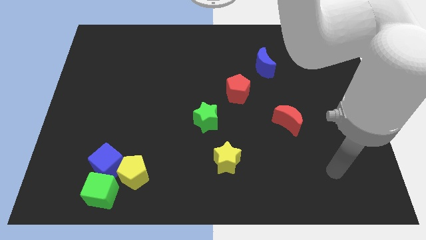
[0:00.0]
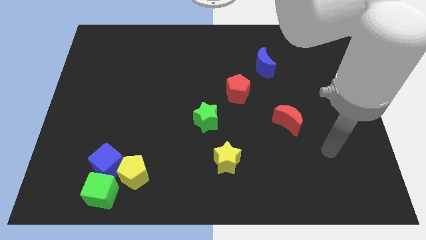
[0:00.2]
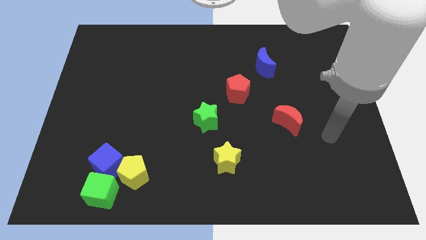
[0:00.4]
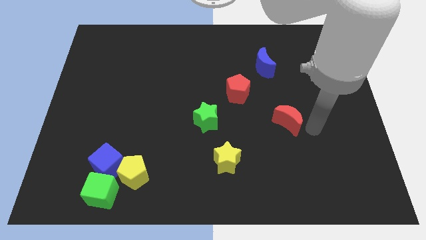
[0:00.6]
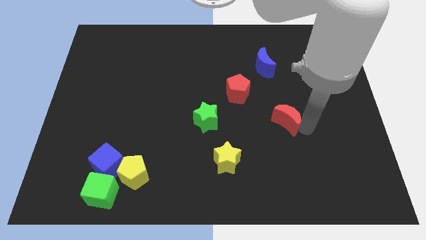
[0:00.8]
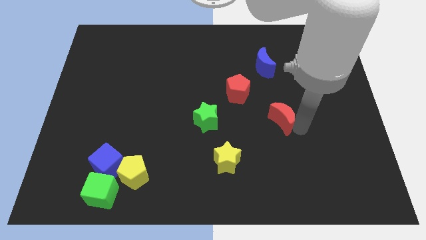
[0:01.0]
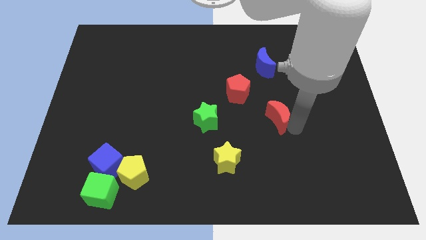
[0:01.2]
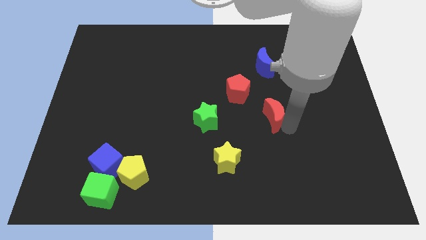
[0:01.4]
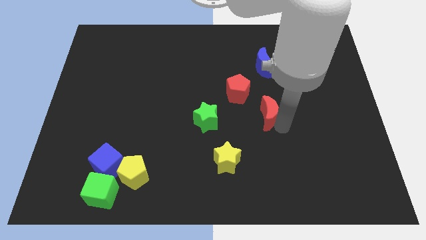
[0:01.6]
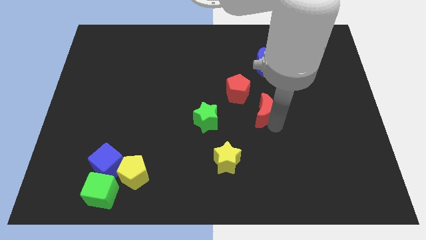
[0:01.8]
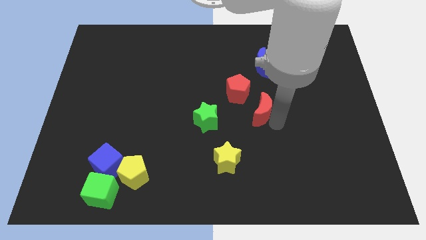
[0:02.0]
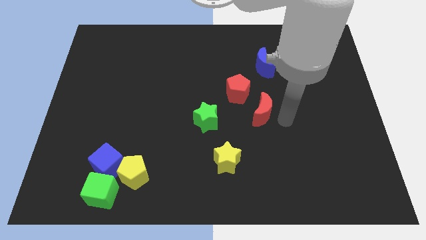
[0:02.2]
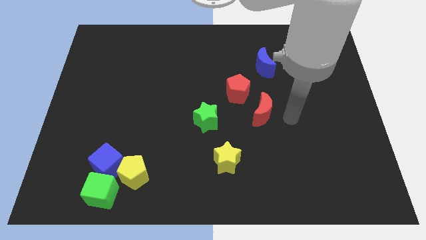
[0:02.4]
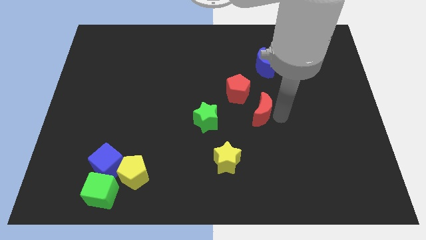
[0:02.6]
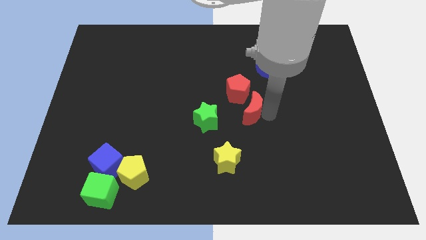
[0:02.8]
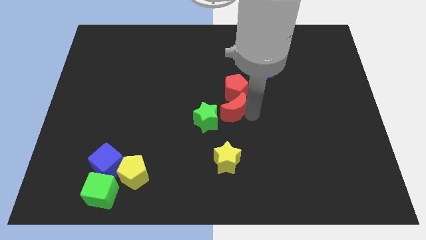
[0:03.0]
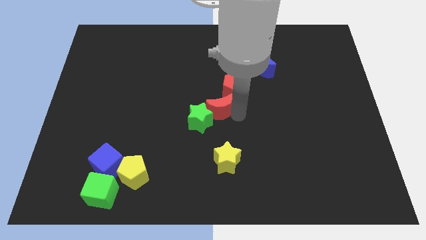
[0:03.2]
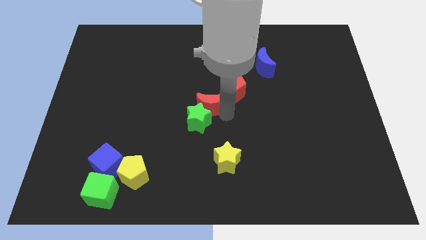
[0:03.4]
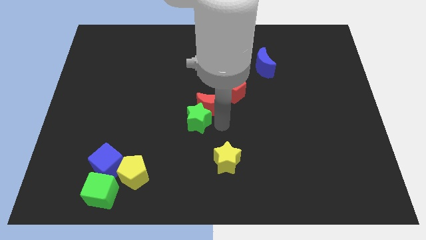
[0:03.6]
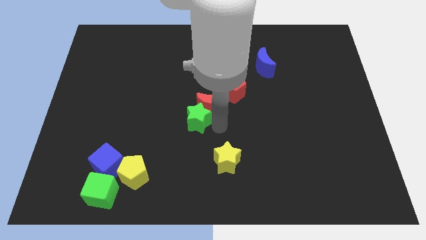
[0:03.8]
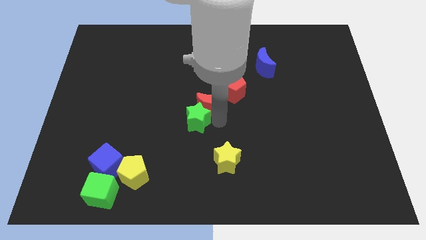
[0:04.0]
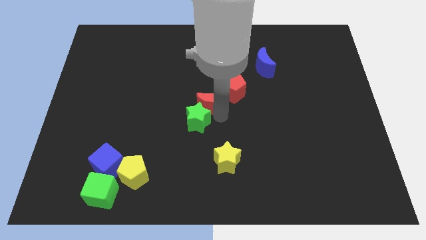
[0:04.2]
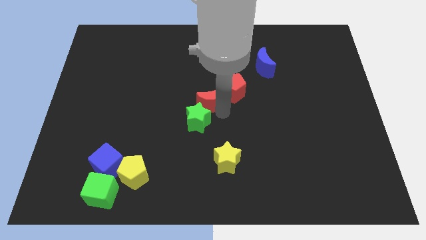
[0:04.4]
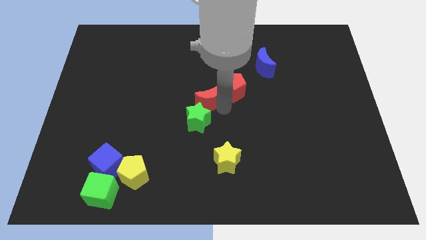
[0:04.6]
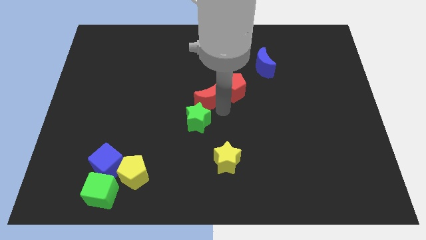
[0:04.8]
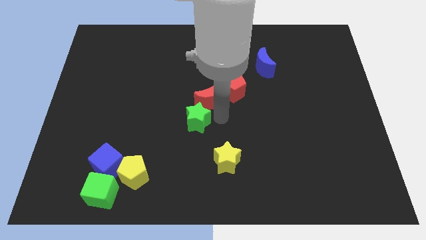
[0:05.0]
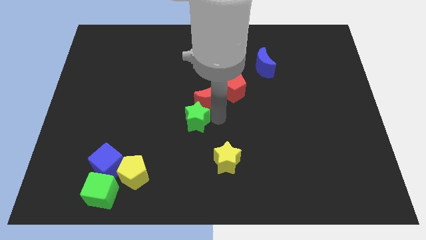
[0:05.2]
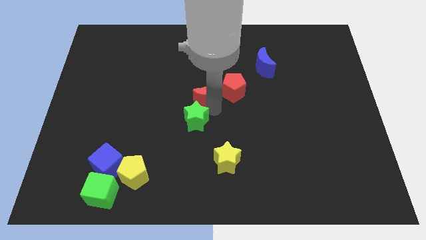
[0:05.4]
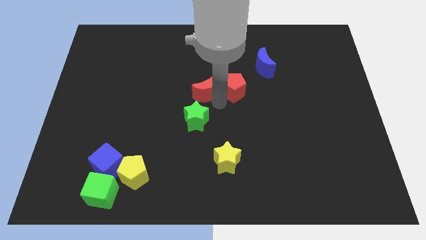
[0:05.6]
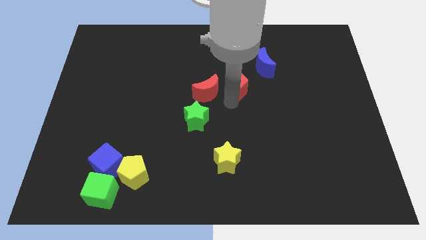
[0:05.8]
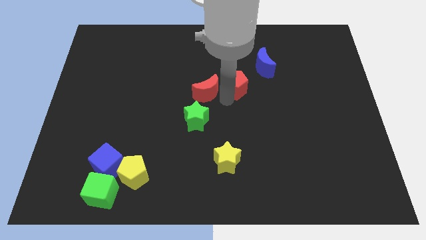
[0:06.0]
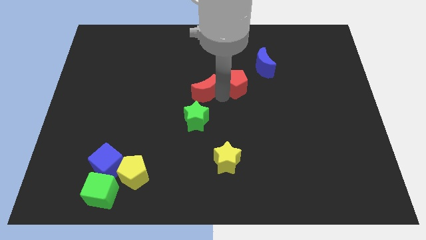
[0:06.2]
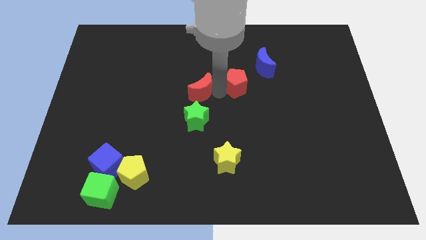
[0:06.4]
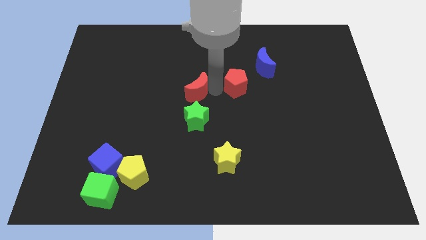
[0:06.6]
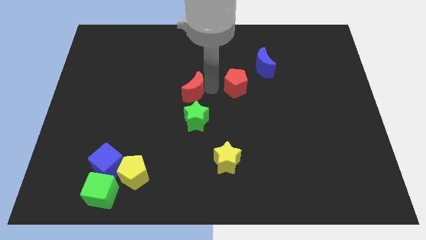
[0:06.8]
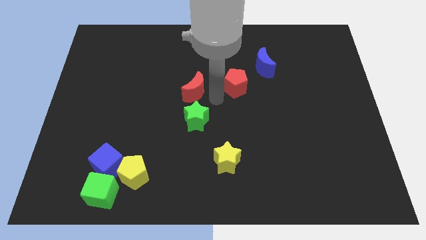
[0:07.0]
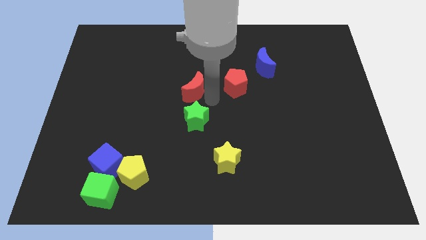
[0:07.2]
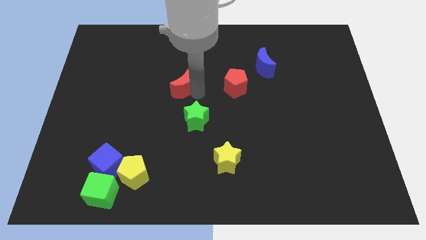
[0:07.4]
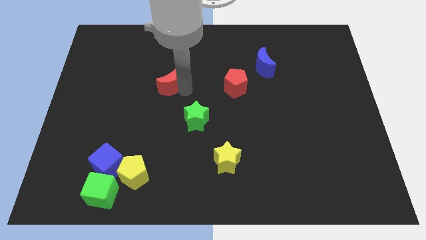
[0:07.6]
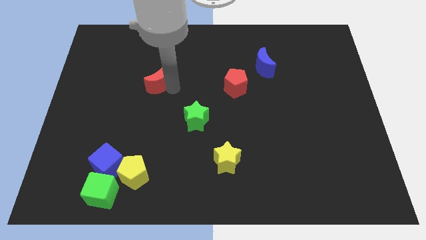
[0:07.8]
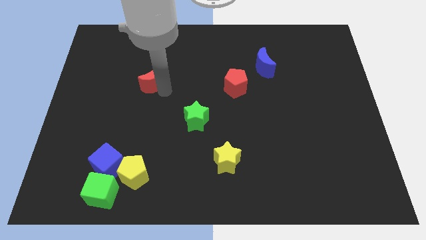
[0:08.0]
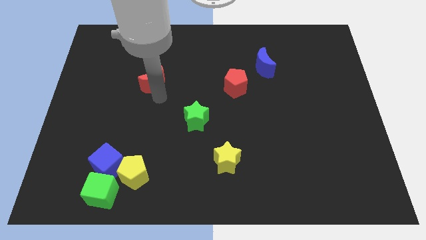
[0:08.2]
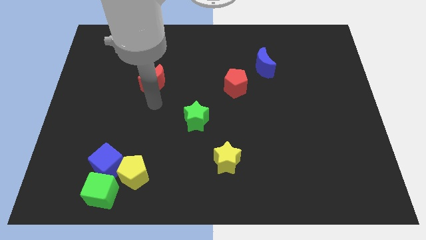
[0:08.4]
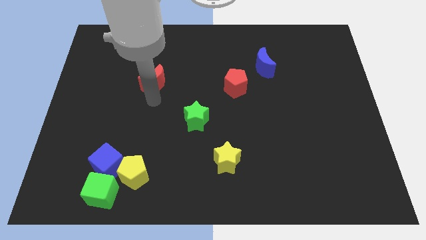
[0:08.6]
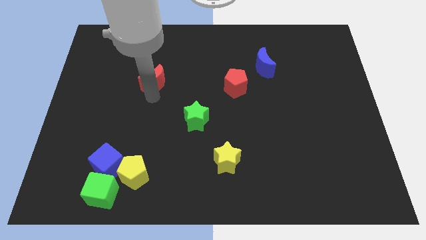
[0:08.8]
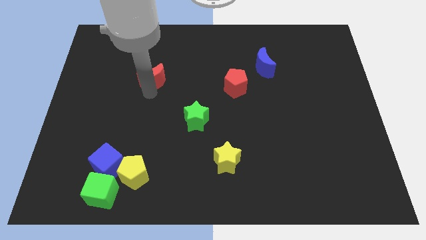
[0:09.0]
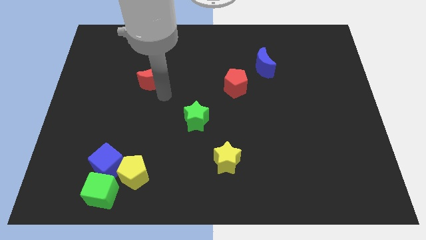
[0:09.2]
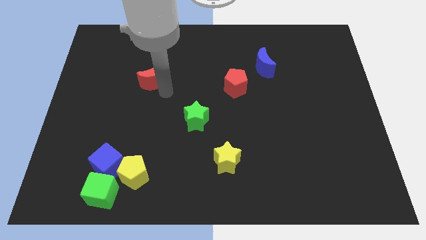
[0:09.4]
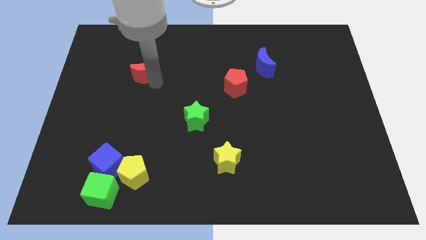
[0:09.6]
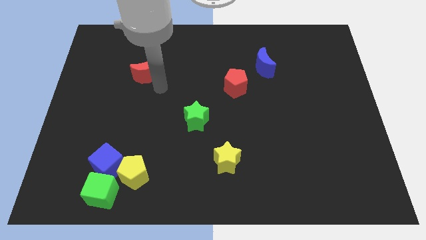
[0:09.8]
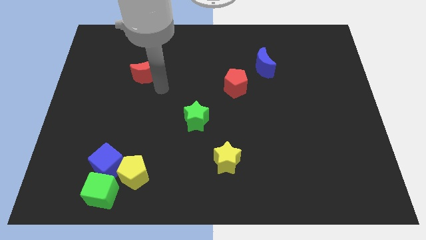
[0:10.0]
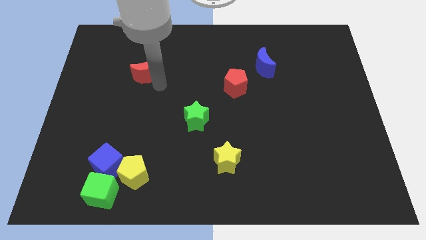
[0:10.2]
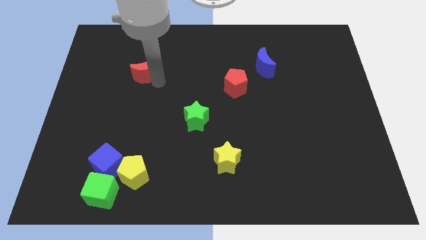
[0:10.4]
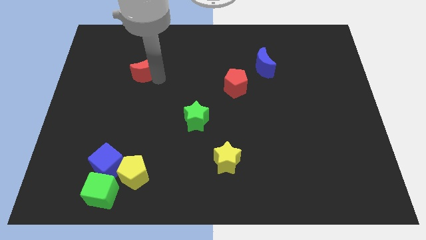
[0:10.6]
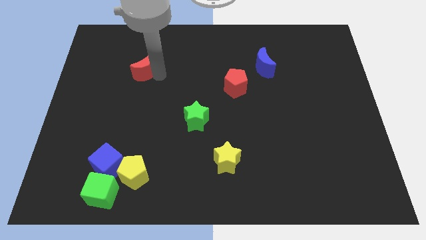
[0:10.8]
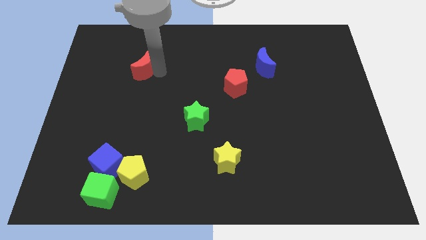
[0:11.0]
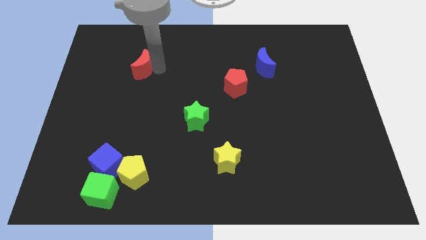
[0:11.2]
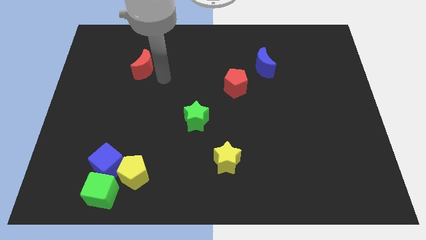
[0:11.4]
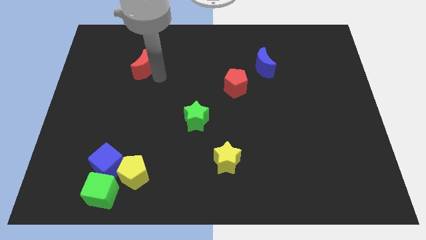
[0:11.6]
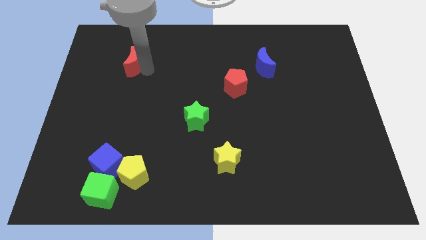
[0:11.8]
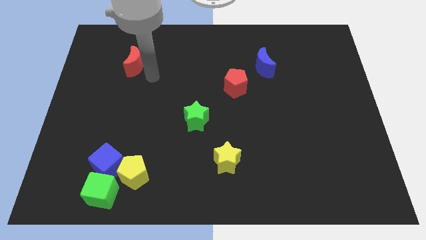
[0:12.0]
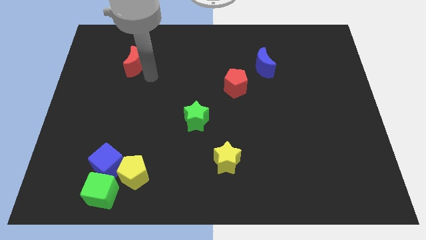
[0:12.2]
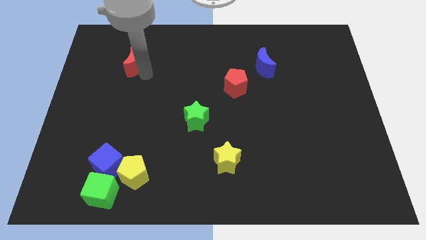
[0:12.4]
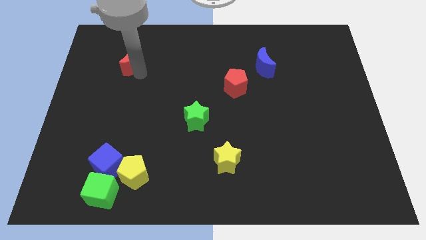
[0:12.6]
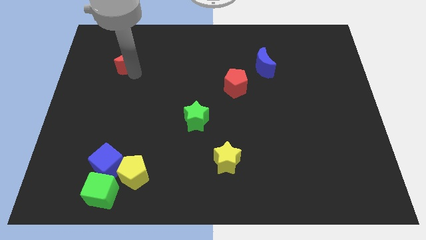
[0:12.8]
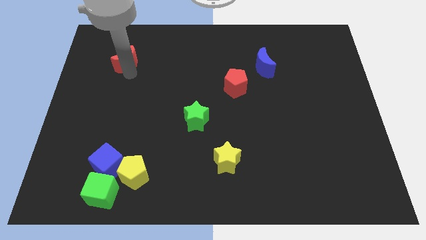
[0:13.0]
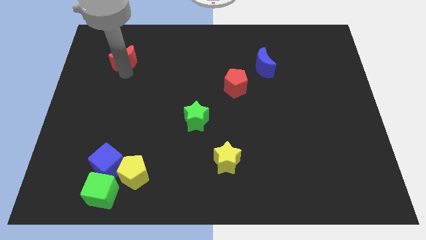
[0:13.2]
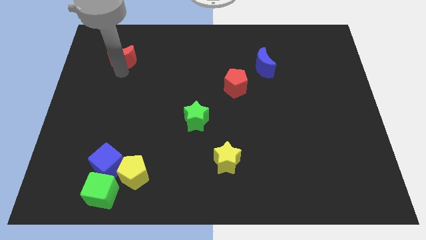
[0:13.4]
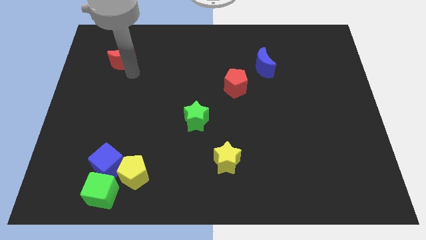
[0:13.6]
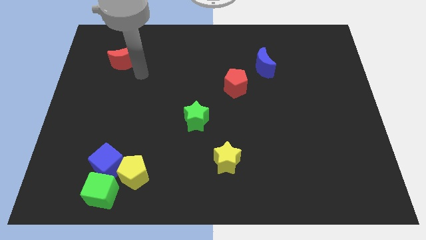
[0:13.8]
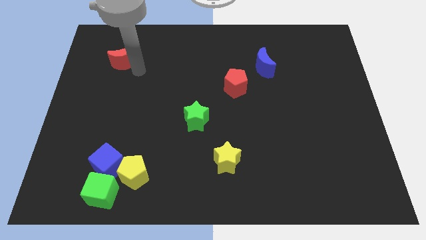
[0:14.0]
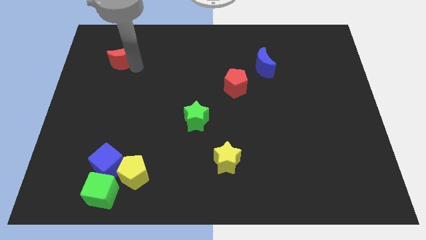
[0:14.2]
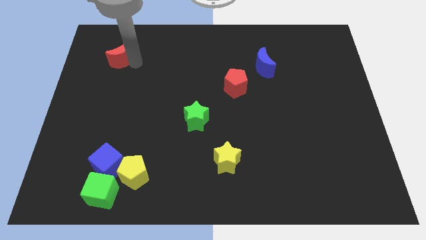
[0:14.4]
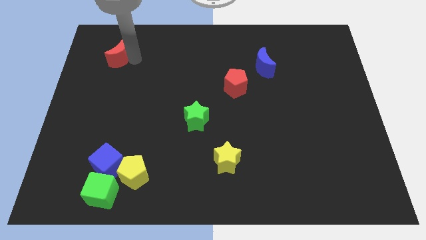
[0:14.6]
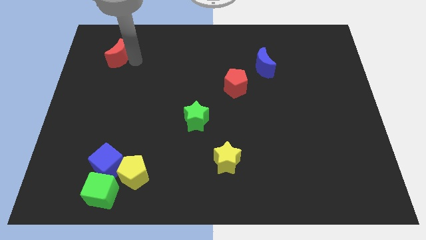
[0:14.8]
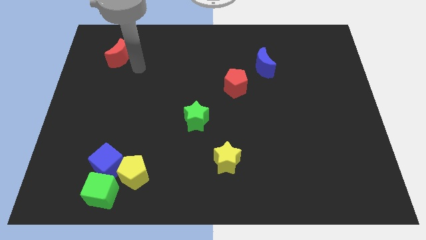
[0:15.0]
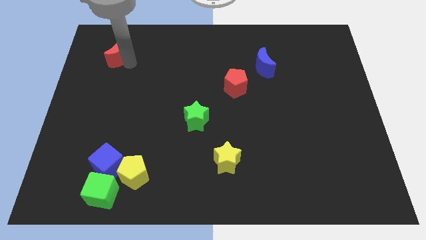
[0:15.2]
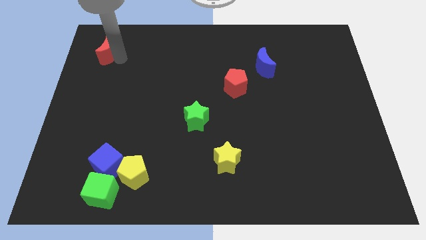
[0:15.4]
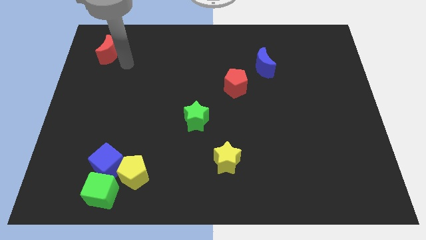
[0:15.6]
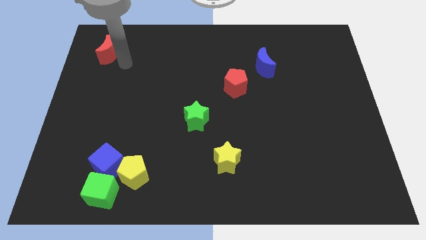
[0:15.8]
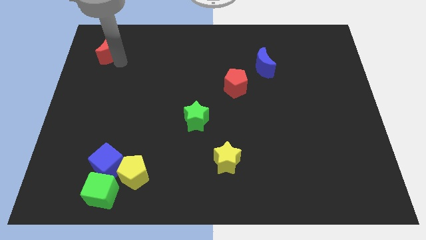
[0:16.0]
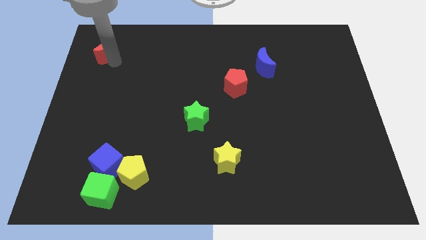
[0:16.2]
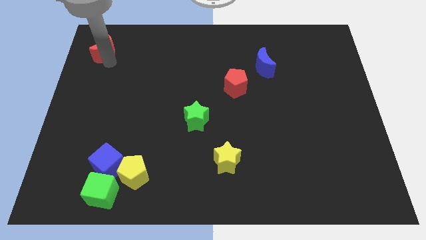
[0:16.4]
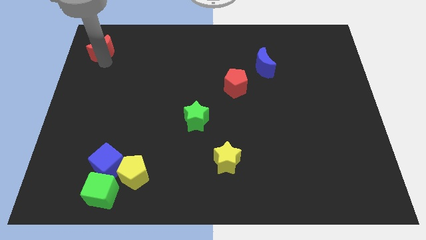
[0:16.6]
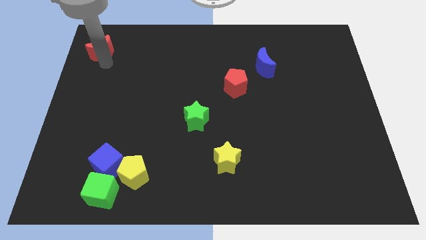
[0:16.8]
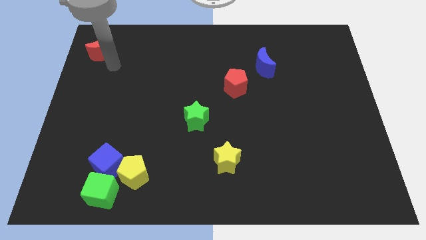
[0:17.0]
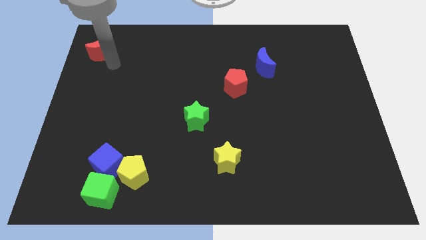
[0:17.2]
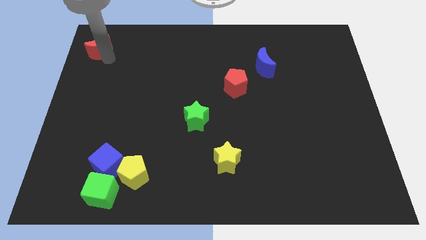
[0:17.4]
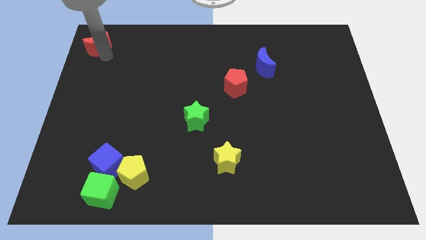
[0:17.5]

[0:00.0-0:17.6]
put the red moon to the upper left corner
